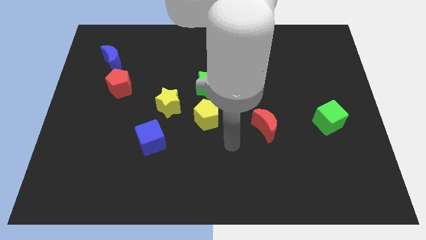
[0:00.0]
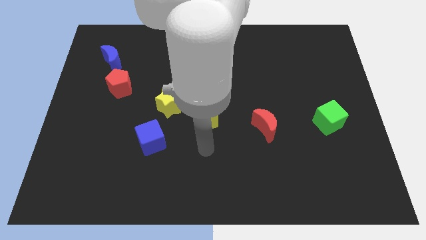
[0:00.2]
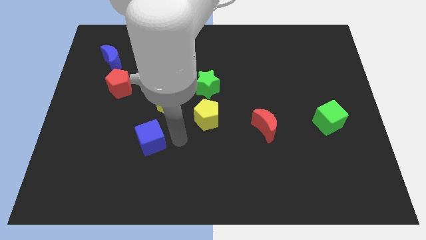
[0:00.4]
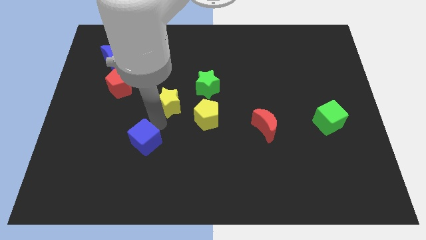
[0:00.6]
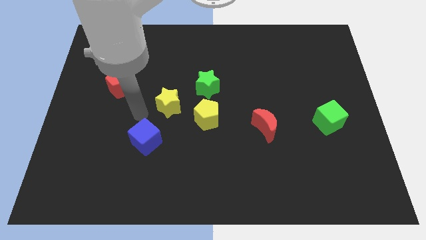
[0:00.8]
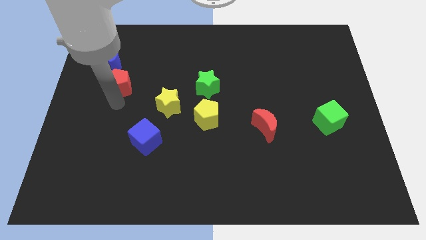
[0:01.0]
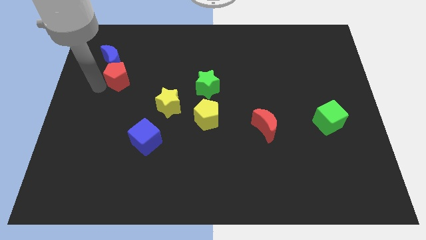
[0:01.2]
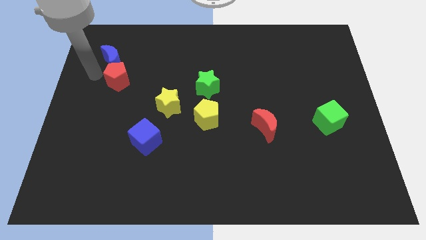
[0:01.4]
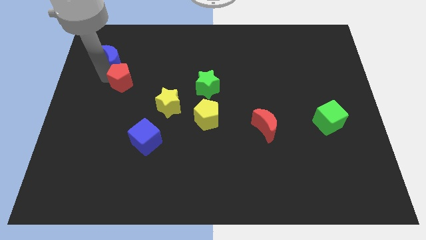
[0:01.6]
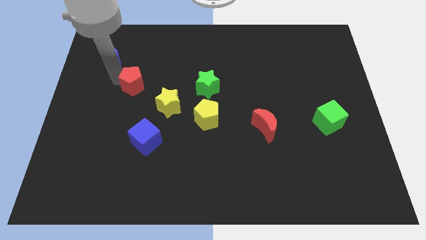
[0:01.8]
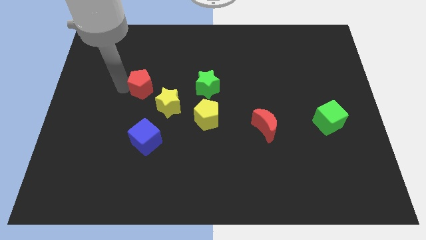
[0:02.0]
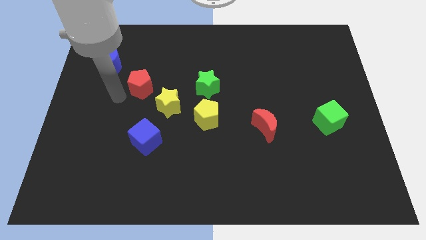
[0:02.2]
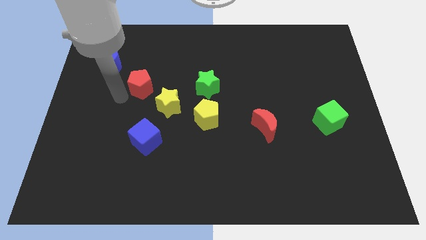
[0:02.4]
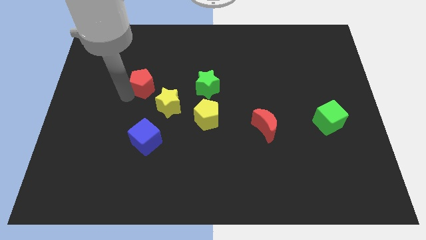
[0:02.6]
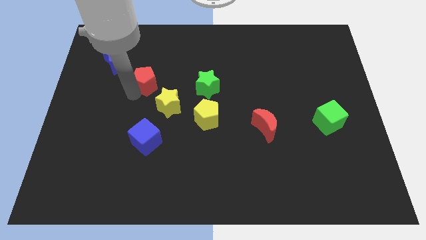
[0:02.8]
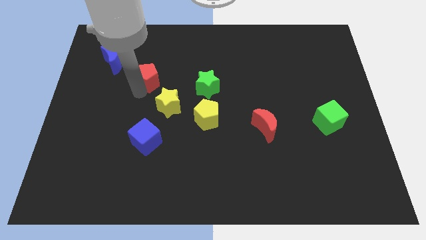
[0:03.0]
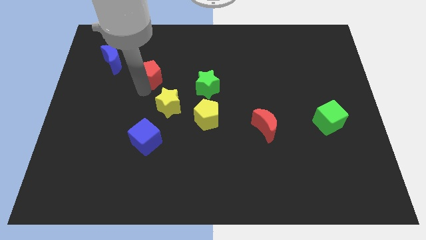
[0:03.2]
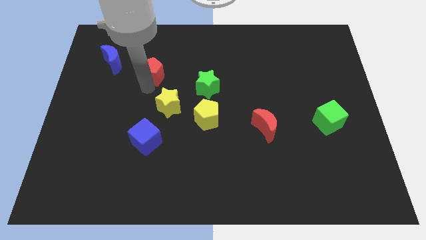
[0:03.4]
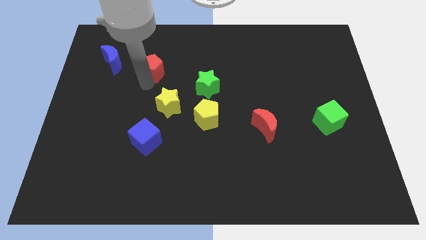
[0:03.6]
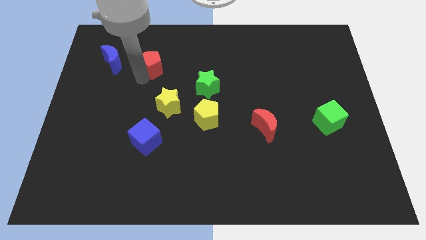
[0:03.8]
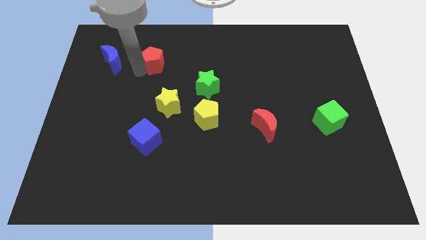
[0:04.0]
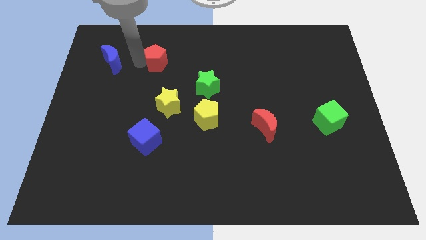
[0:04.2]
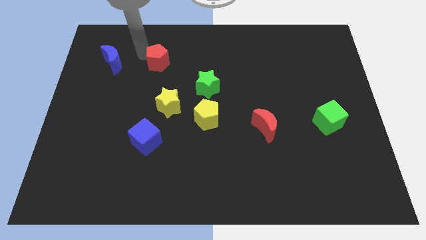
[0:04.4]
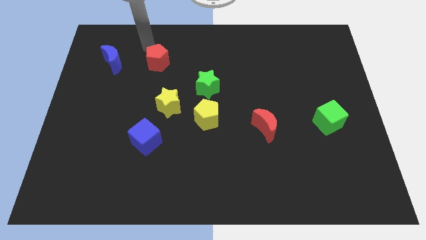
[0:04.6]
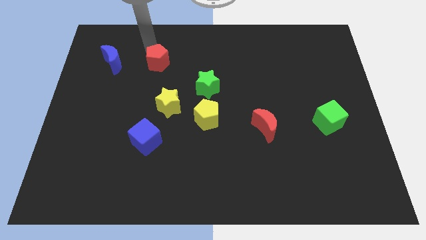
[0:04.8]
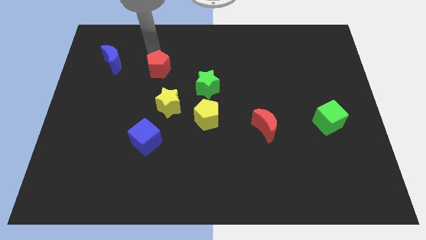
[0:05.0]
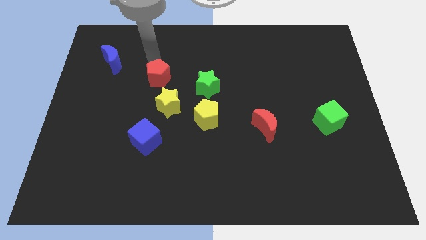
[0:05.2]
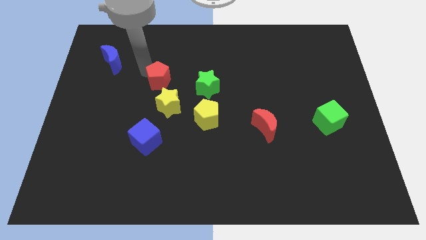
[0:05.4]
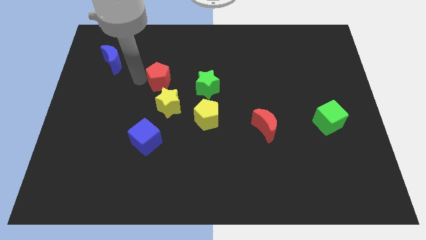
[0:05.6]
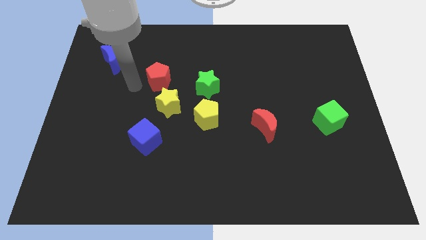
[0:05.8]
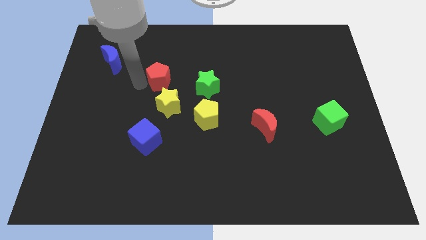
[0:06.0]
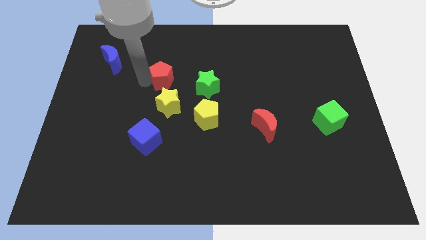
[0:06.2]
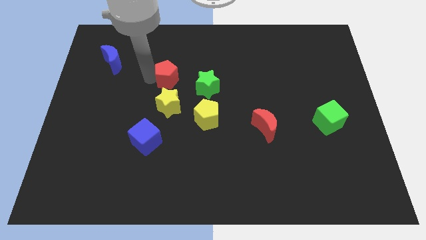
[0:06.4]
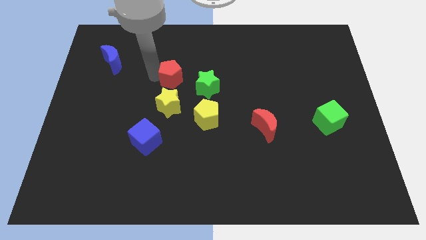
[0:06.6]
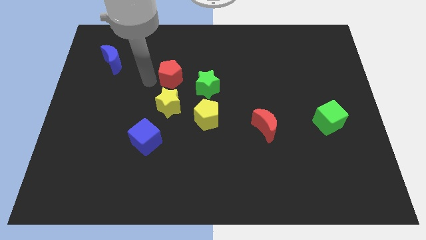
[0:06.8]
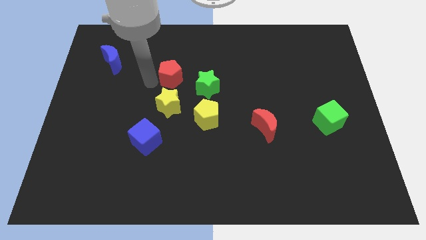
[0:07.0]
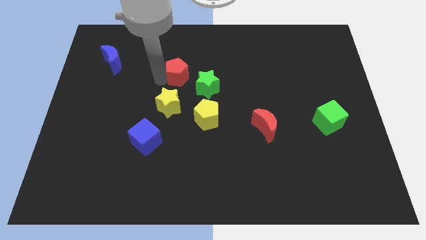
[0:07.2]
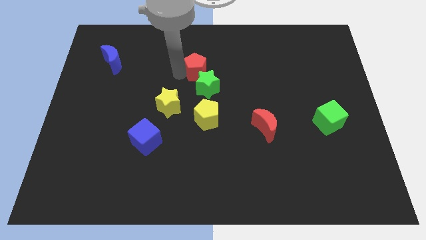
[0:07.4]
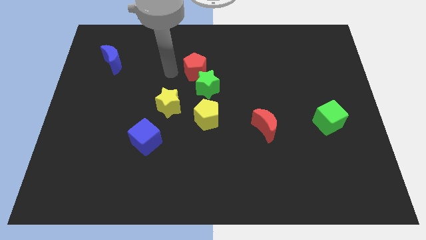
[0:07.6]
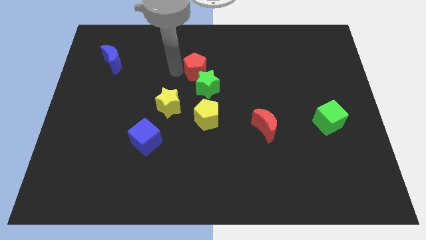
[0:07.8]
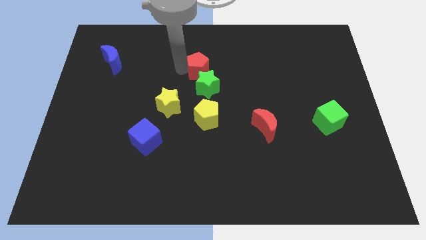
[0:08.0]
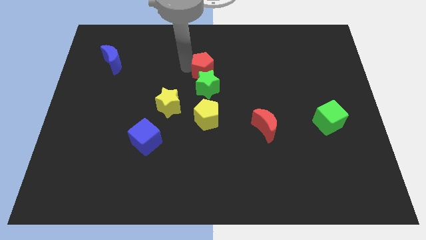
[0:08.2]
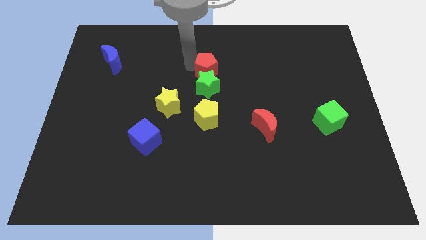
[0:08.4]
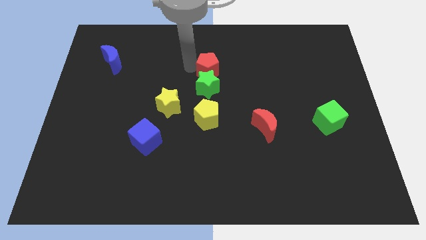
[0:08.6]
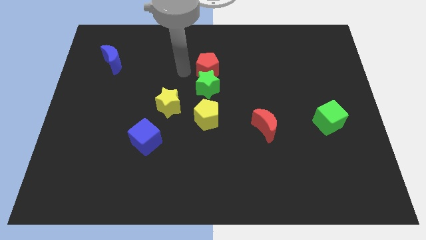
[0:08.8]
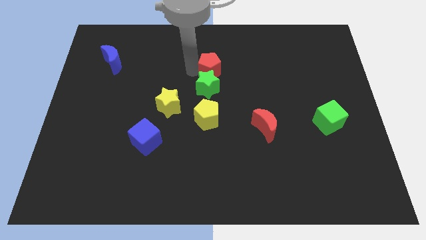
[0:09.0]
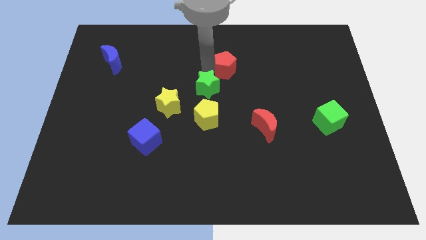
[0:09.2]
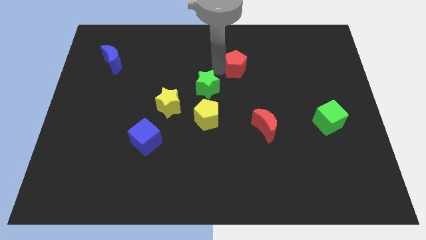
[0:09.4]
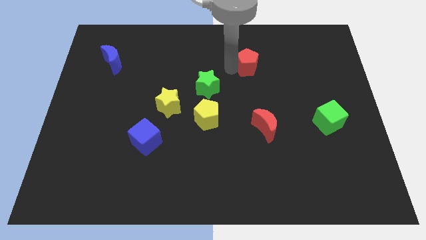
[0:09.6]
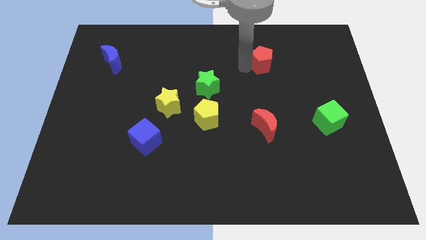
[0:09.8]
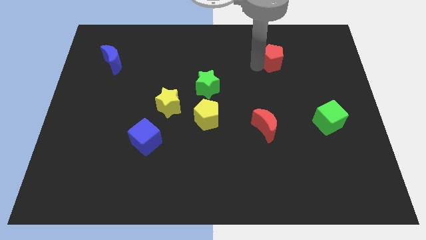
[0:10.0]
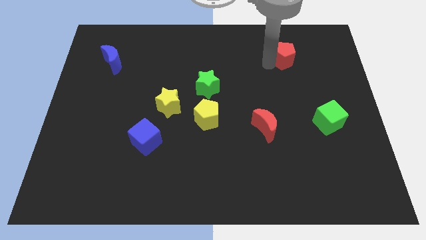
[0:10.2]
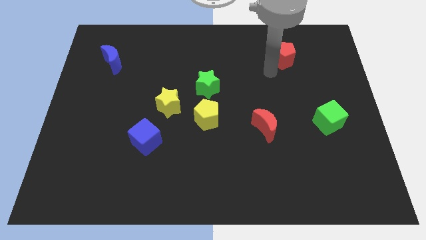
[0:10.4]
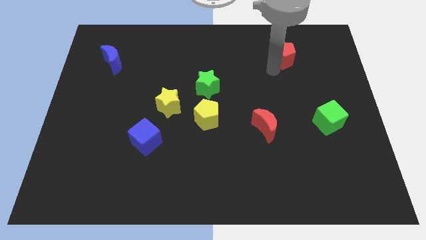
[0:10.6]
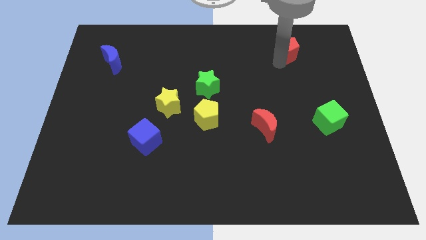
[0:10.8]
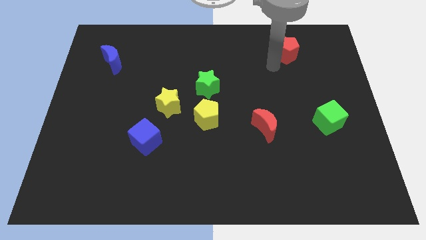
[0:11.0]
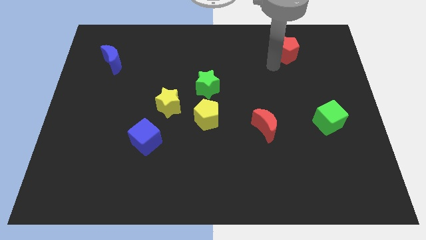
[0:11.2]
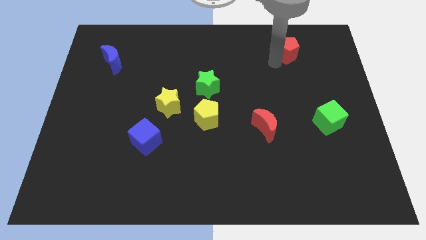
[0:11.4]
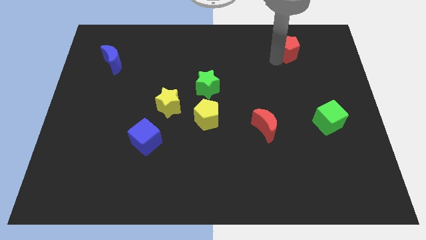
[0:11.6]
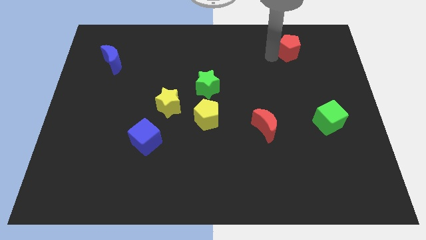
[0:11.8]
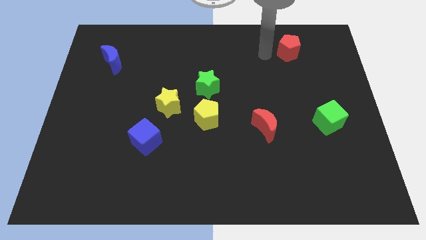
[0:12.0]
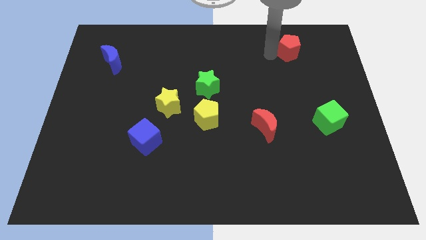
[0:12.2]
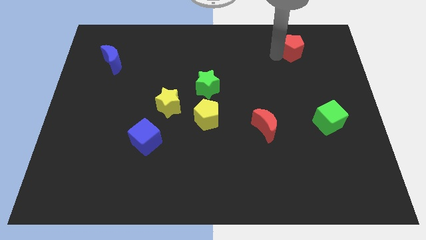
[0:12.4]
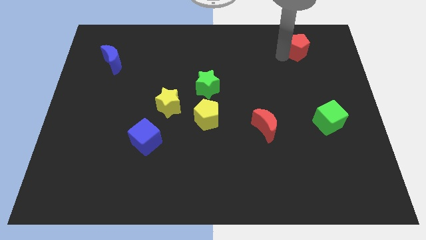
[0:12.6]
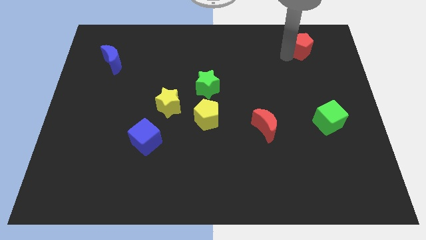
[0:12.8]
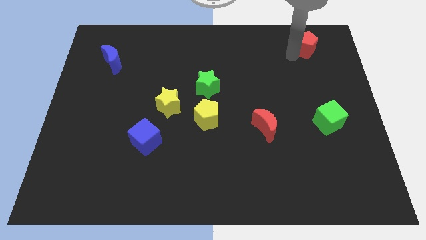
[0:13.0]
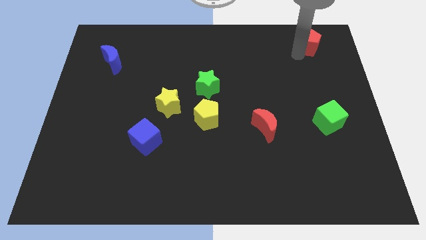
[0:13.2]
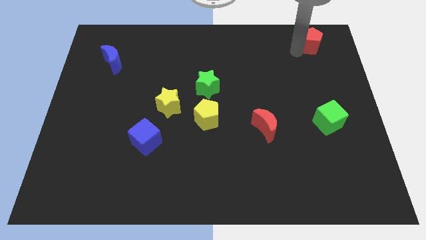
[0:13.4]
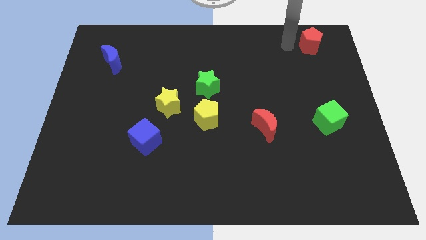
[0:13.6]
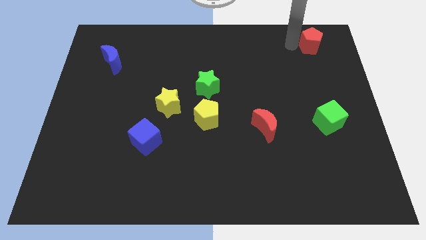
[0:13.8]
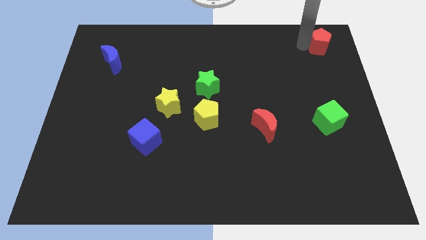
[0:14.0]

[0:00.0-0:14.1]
put the red pentagon to the top right
